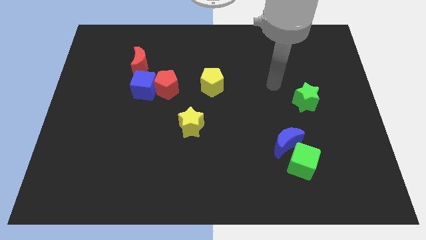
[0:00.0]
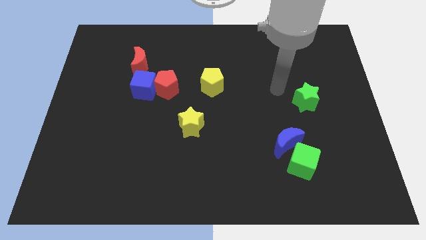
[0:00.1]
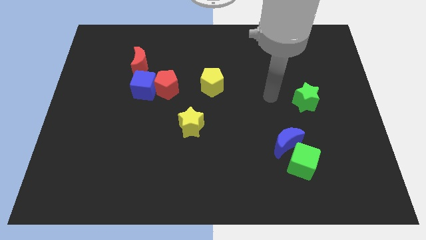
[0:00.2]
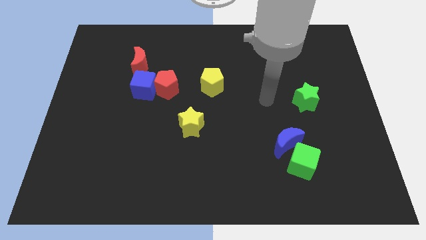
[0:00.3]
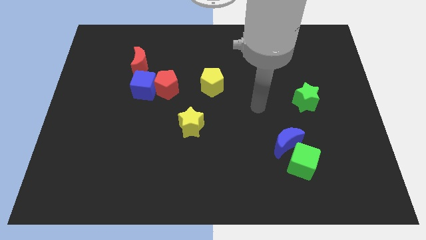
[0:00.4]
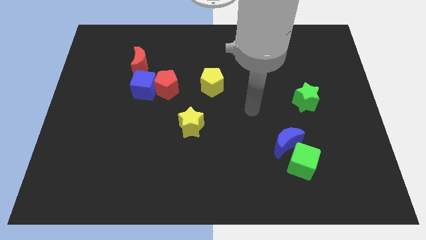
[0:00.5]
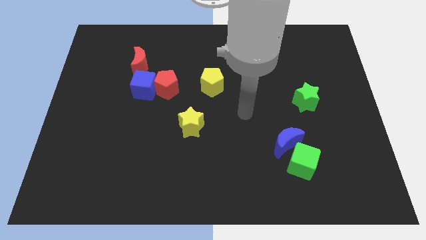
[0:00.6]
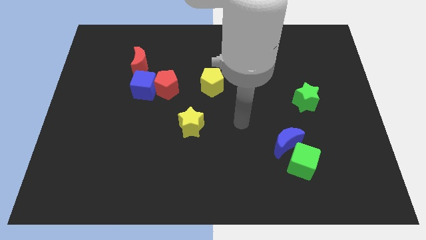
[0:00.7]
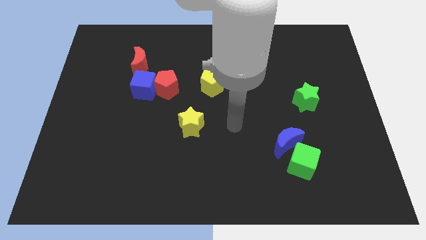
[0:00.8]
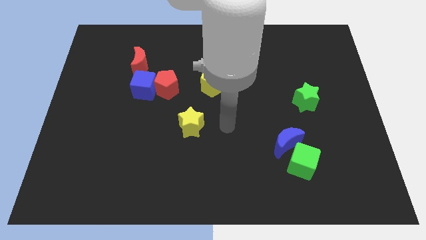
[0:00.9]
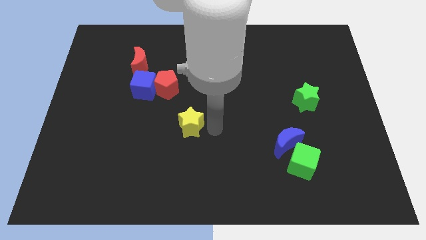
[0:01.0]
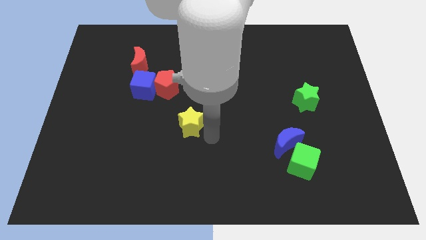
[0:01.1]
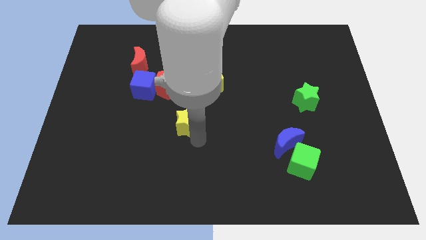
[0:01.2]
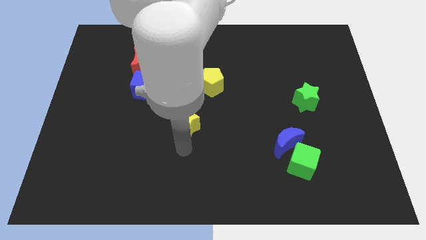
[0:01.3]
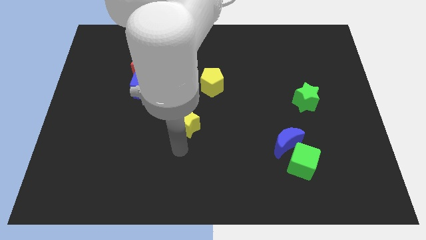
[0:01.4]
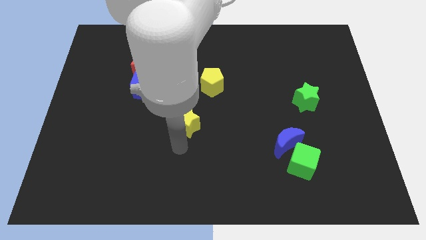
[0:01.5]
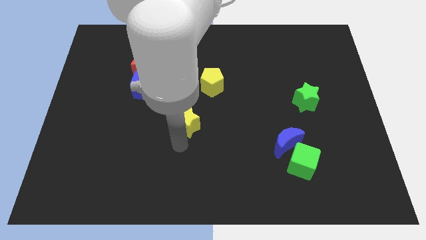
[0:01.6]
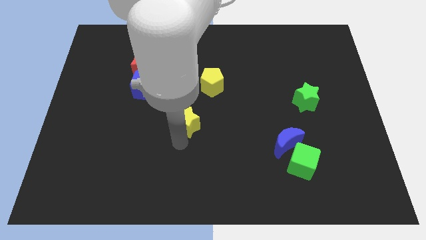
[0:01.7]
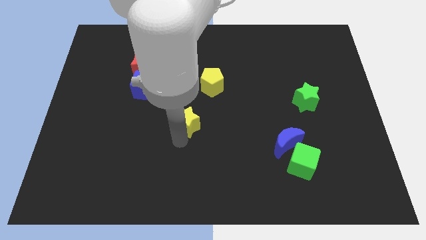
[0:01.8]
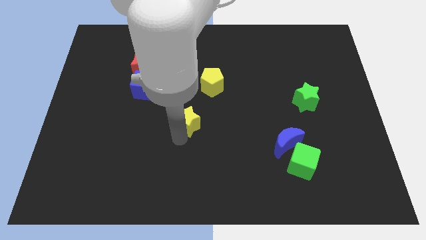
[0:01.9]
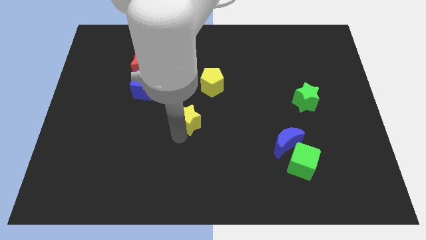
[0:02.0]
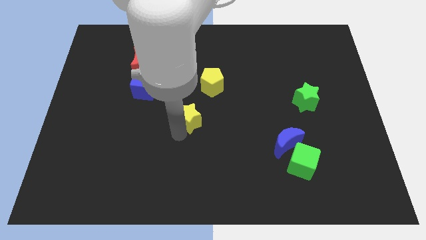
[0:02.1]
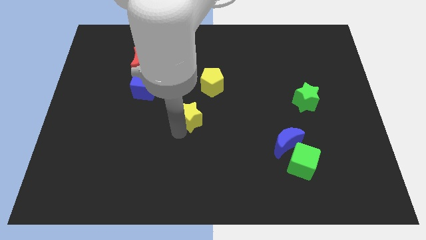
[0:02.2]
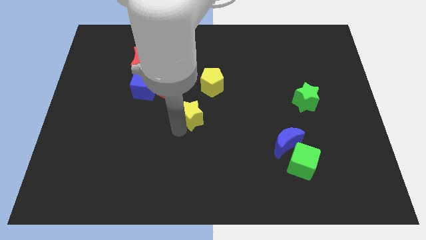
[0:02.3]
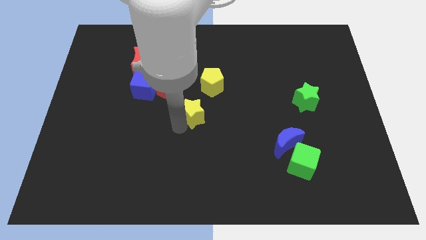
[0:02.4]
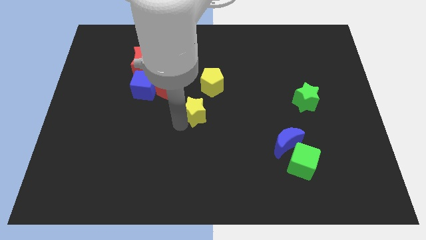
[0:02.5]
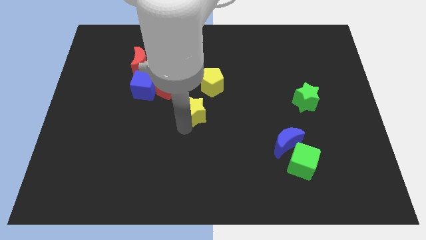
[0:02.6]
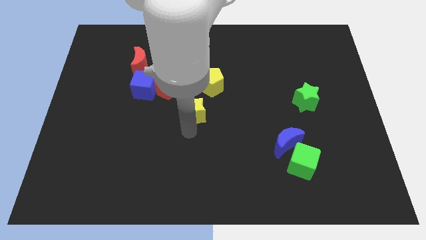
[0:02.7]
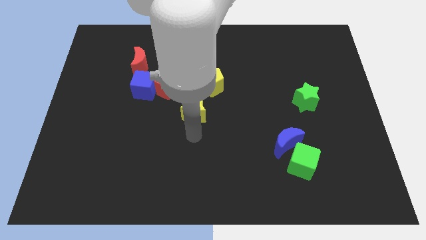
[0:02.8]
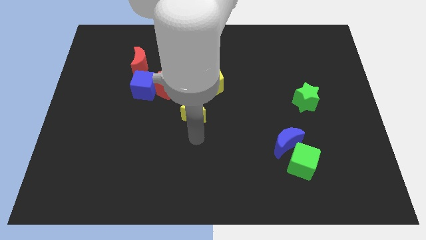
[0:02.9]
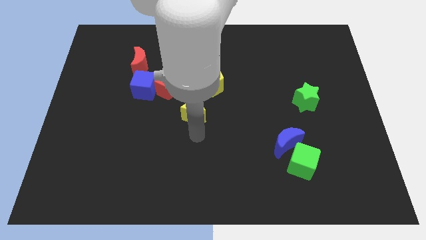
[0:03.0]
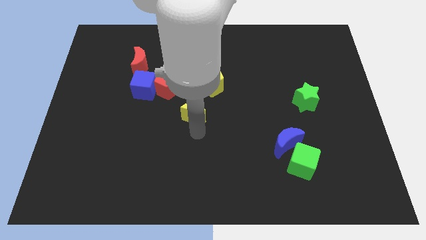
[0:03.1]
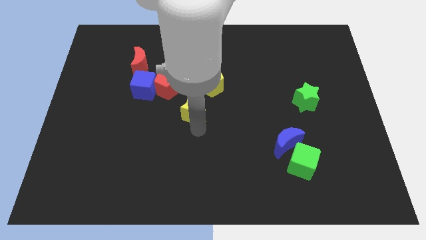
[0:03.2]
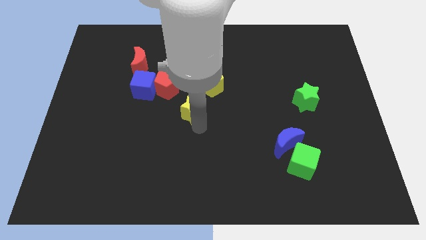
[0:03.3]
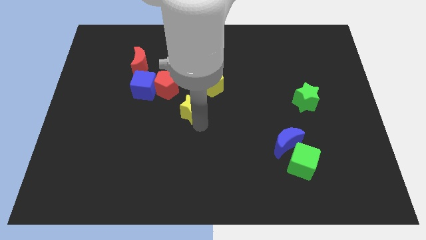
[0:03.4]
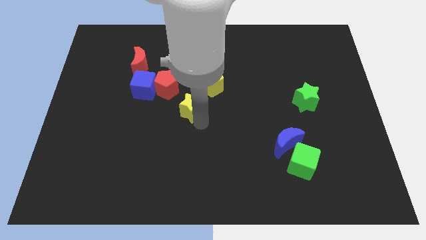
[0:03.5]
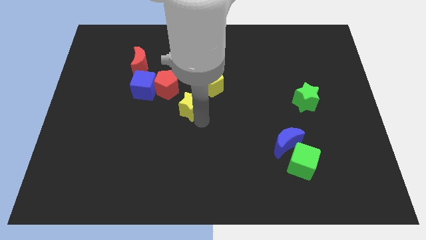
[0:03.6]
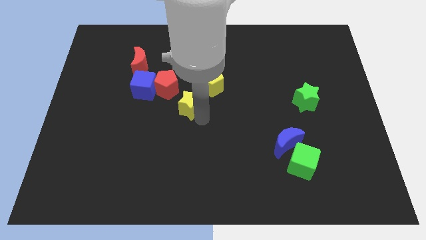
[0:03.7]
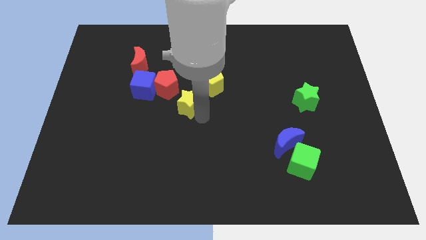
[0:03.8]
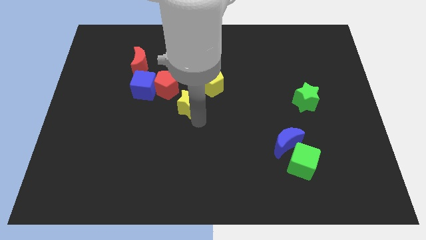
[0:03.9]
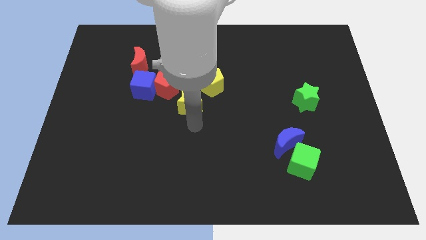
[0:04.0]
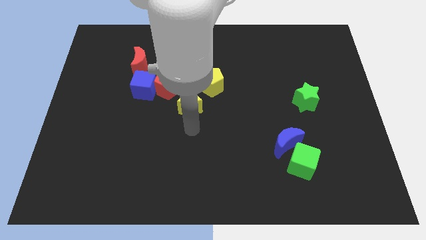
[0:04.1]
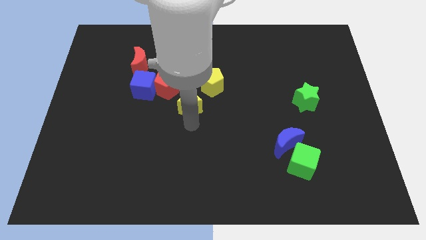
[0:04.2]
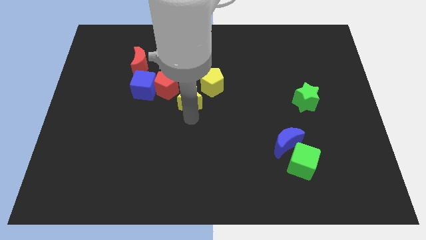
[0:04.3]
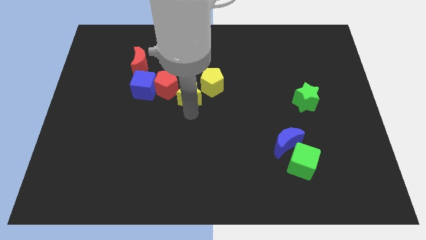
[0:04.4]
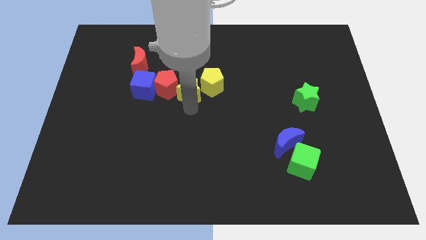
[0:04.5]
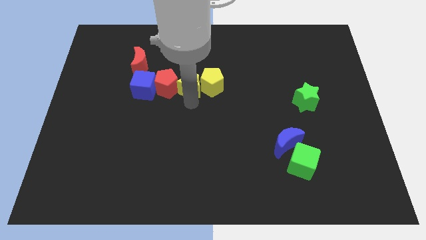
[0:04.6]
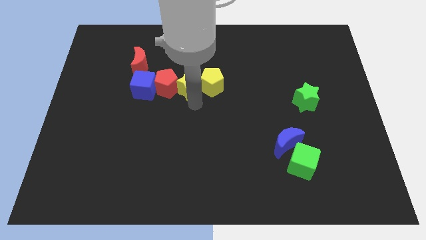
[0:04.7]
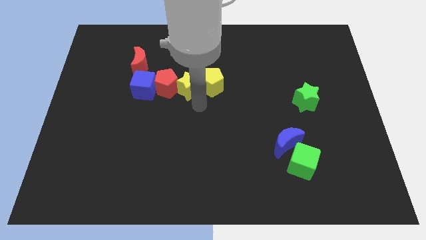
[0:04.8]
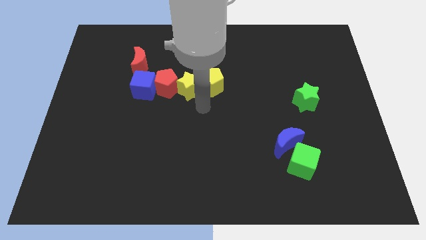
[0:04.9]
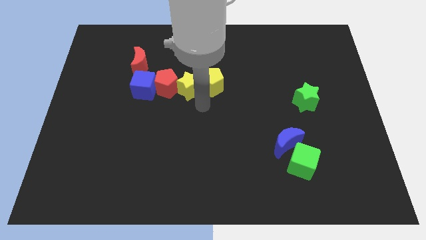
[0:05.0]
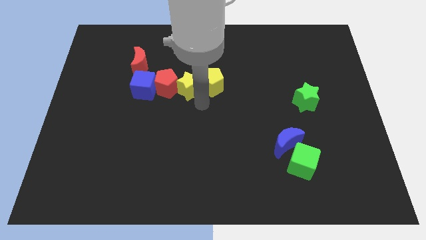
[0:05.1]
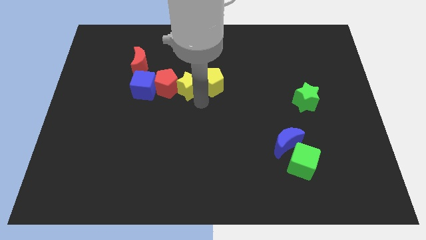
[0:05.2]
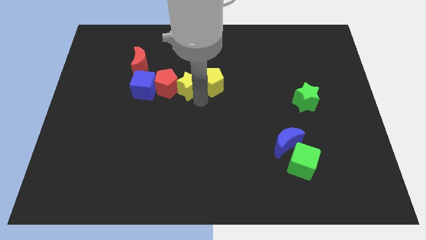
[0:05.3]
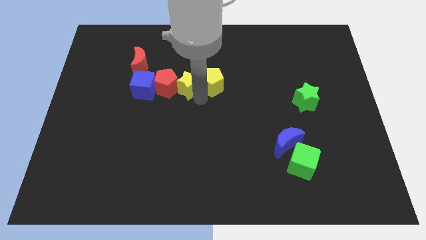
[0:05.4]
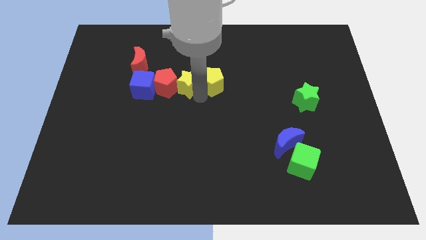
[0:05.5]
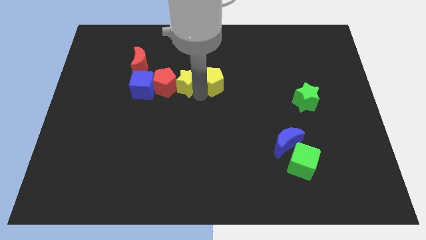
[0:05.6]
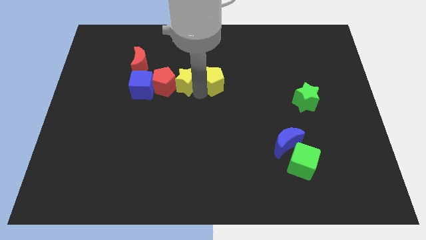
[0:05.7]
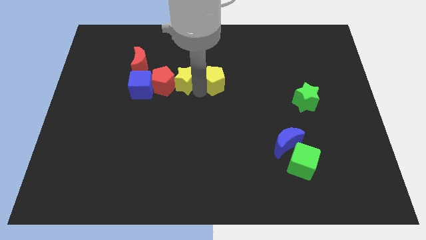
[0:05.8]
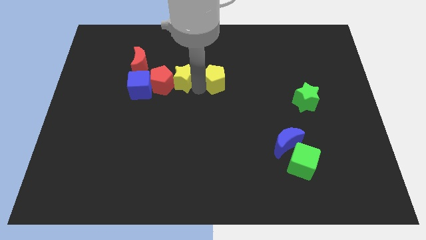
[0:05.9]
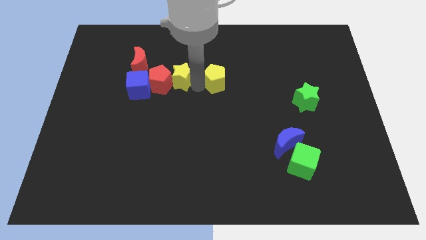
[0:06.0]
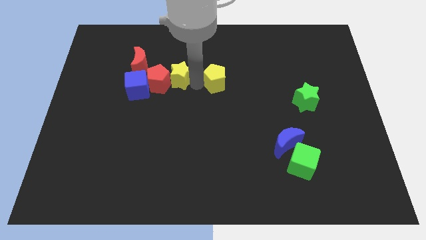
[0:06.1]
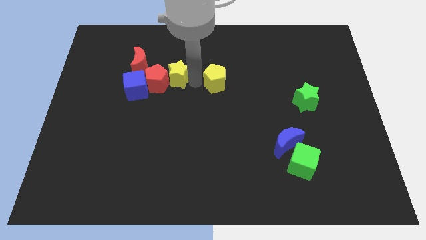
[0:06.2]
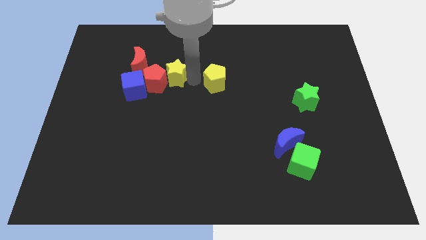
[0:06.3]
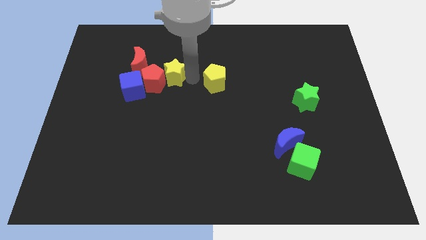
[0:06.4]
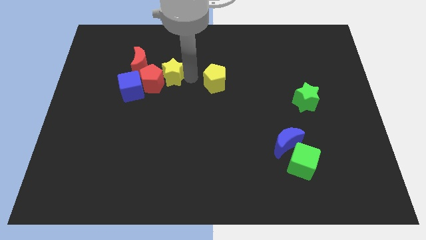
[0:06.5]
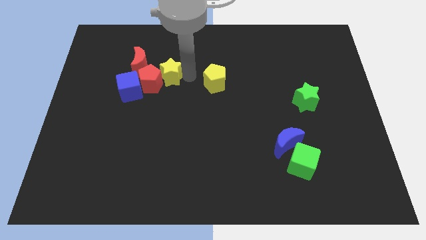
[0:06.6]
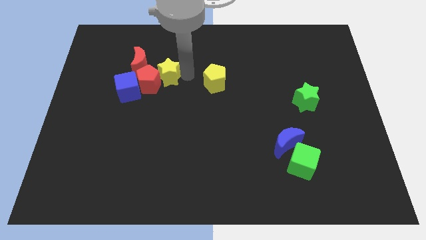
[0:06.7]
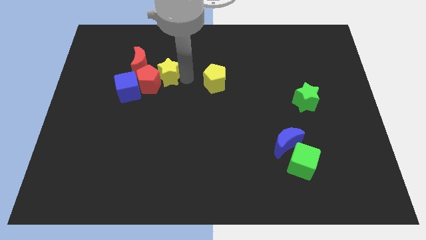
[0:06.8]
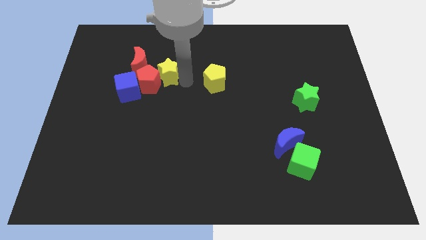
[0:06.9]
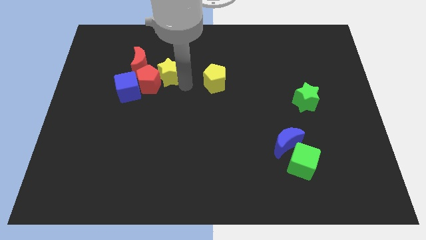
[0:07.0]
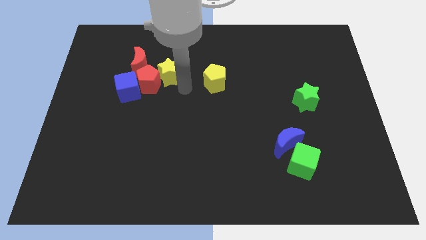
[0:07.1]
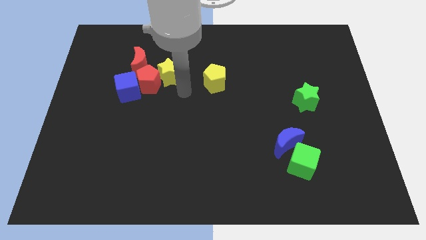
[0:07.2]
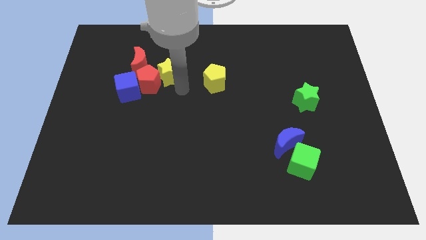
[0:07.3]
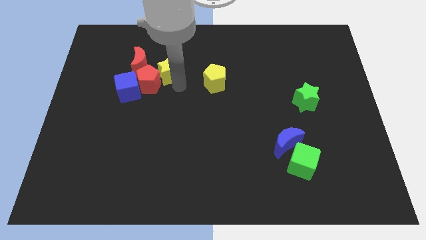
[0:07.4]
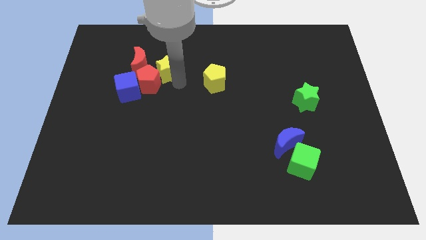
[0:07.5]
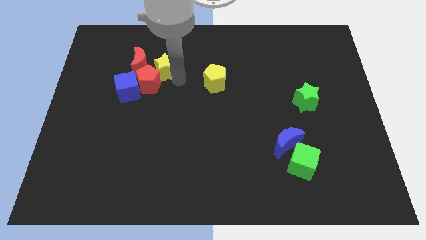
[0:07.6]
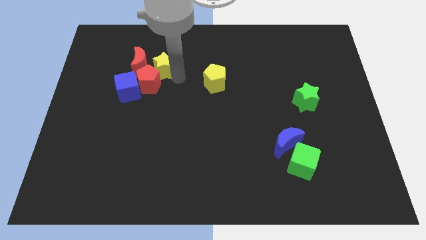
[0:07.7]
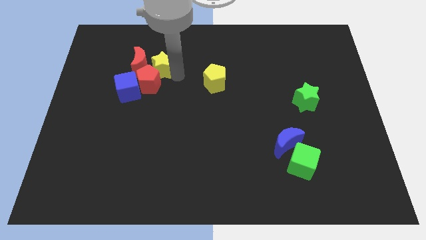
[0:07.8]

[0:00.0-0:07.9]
push the yellow star next to the red moon
